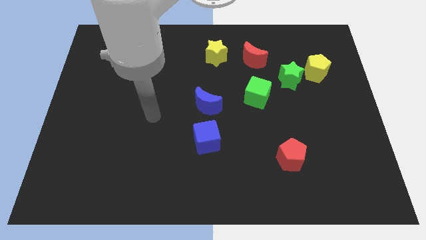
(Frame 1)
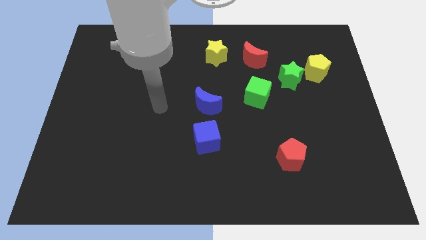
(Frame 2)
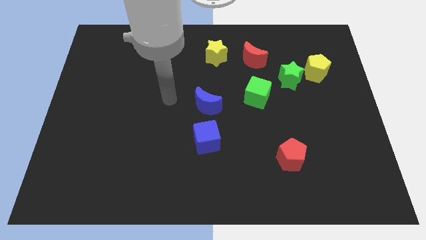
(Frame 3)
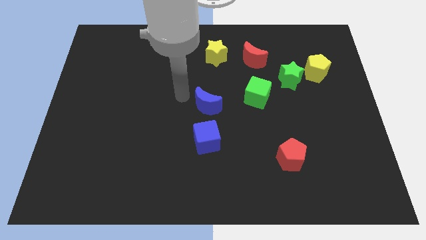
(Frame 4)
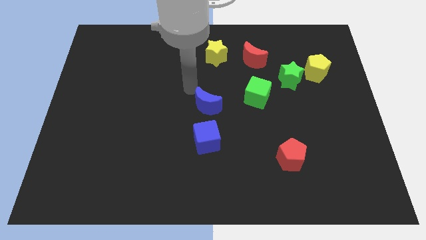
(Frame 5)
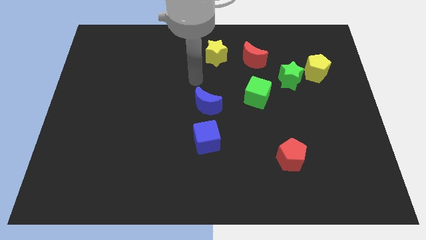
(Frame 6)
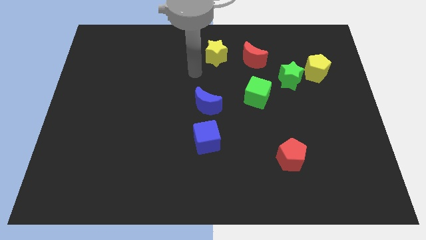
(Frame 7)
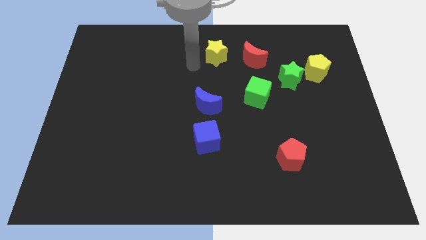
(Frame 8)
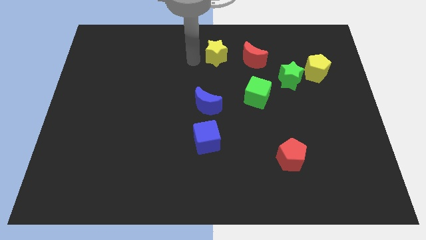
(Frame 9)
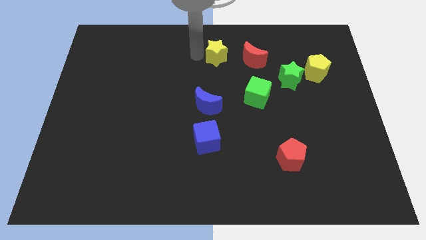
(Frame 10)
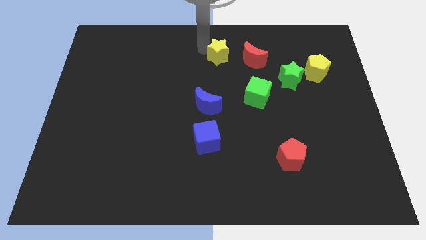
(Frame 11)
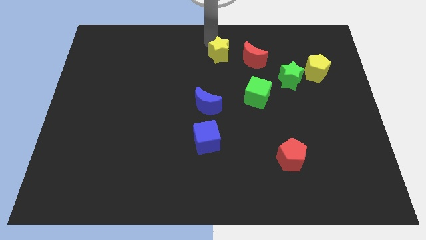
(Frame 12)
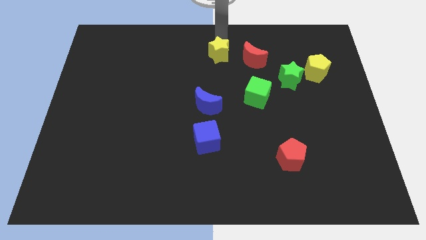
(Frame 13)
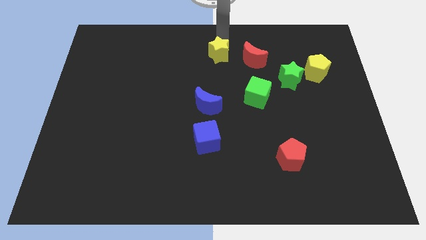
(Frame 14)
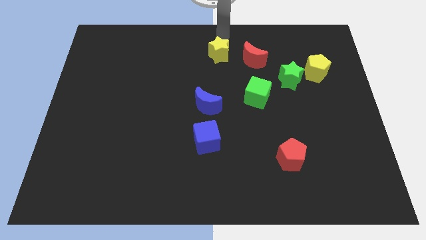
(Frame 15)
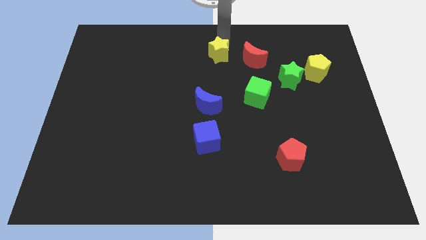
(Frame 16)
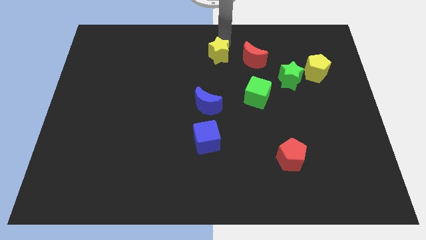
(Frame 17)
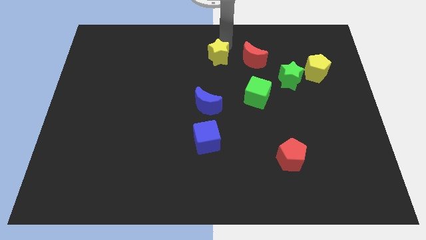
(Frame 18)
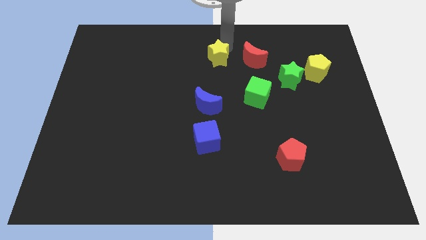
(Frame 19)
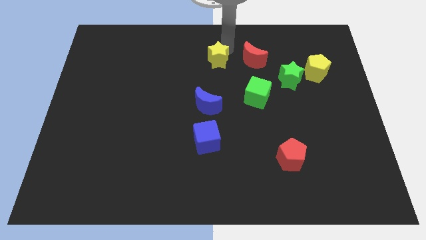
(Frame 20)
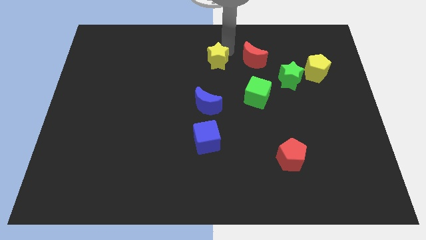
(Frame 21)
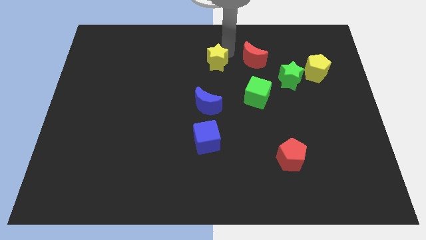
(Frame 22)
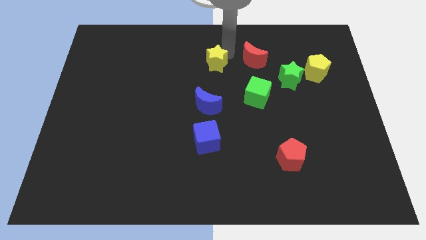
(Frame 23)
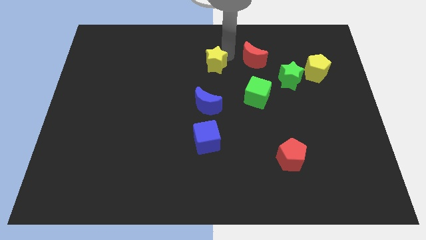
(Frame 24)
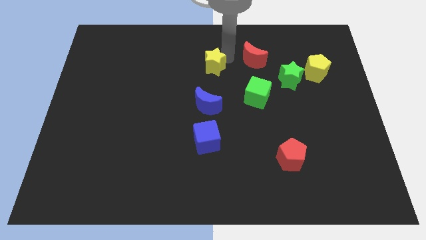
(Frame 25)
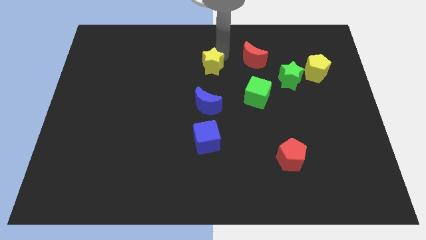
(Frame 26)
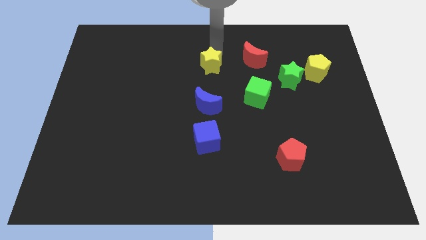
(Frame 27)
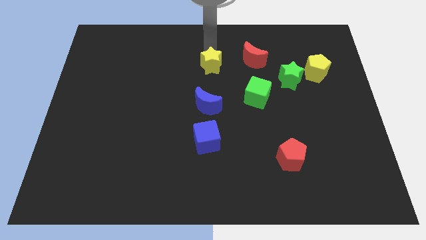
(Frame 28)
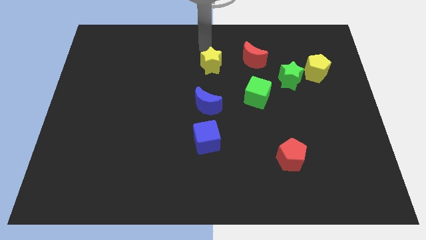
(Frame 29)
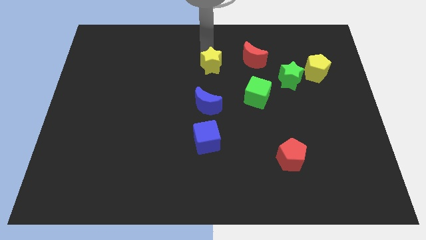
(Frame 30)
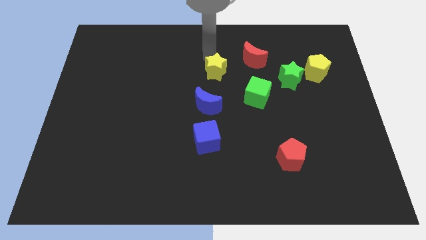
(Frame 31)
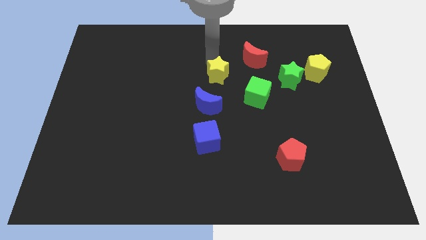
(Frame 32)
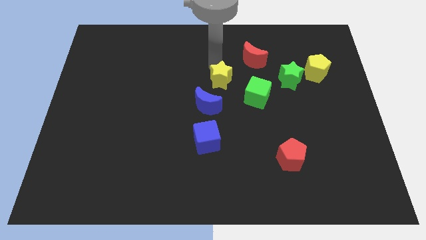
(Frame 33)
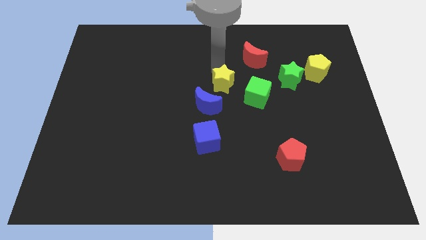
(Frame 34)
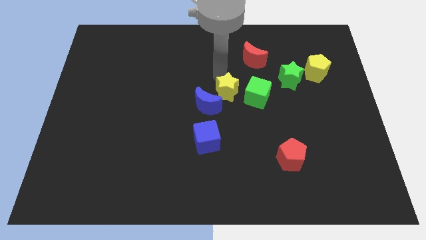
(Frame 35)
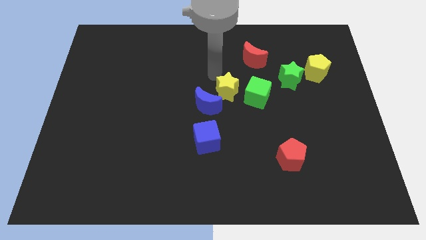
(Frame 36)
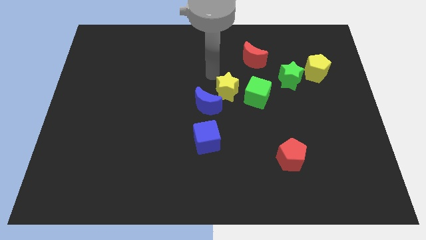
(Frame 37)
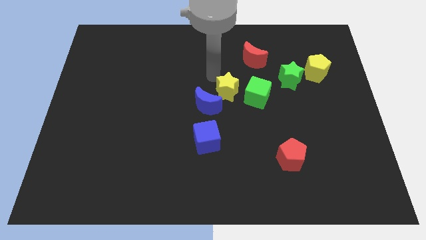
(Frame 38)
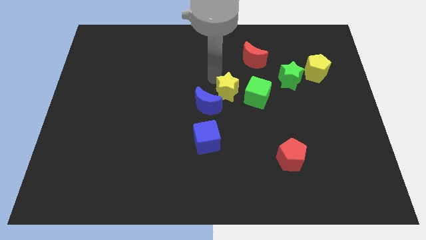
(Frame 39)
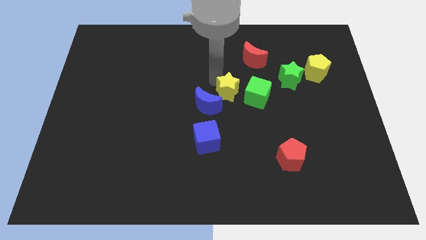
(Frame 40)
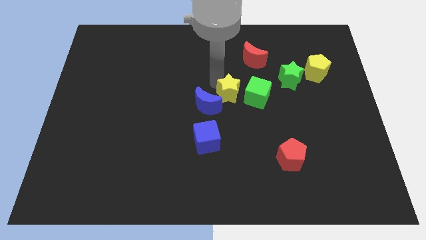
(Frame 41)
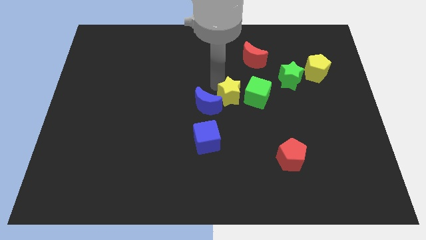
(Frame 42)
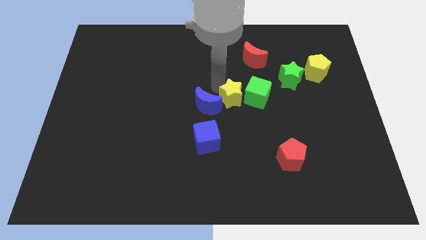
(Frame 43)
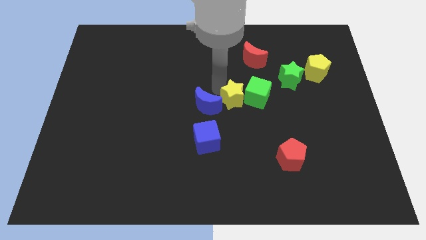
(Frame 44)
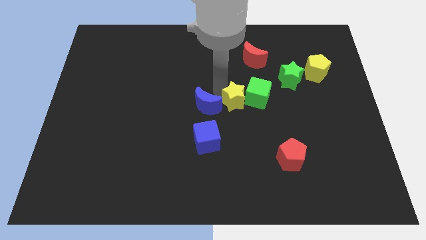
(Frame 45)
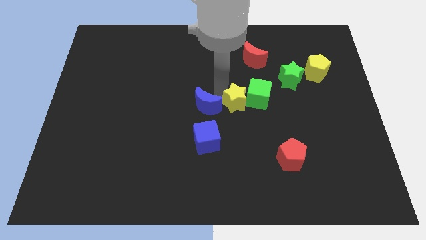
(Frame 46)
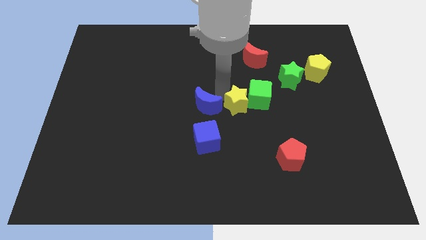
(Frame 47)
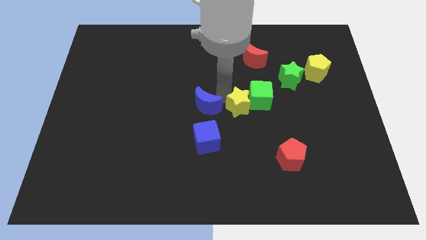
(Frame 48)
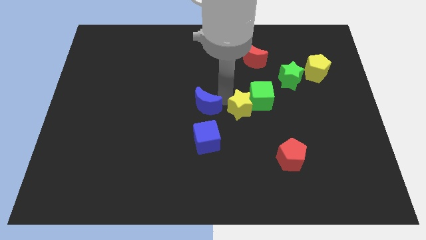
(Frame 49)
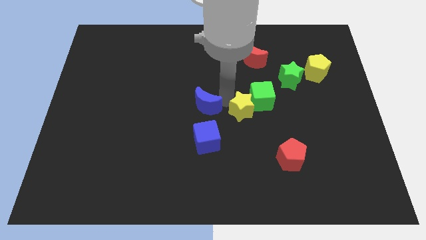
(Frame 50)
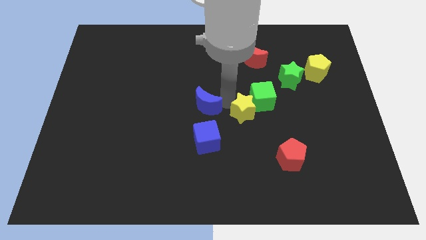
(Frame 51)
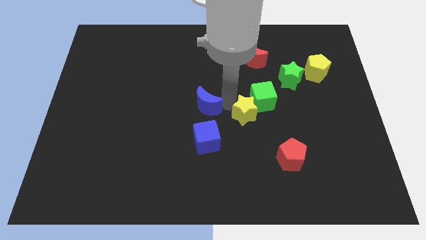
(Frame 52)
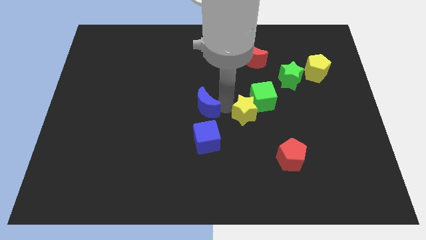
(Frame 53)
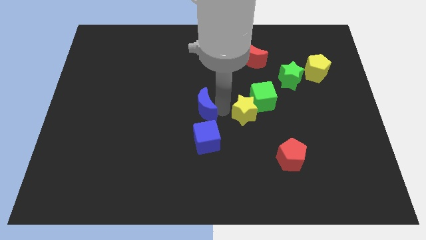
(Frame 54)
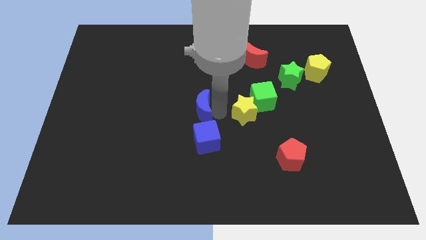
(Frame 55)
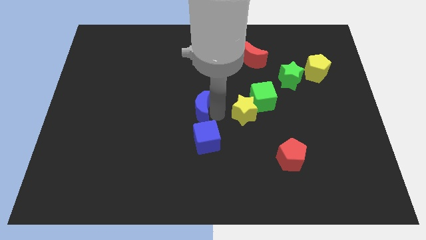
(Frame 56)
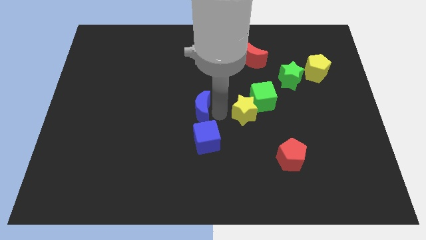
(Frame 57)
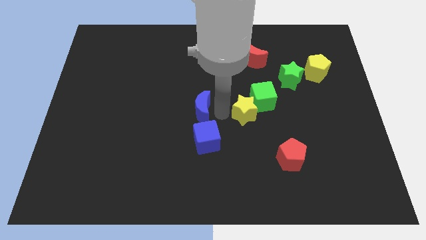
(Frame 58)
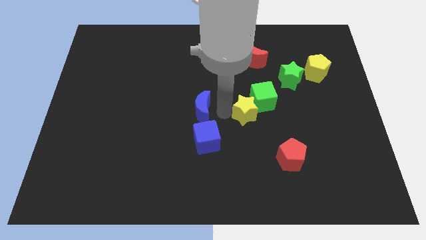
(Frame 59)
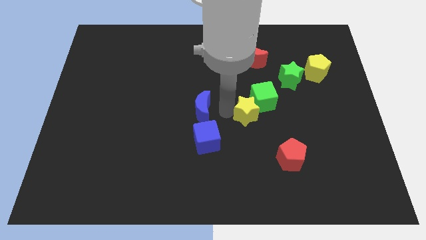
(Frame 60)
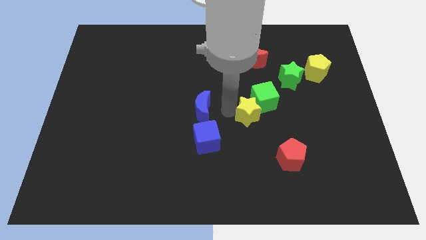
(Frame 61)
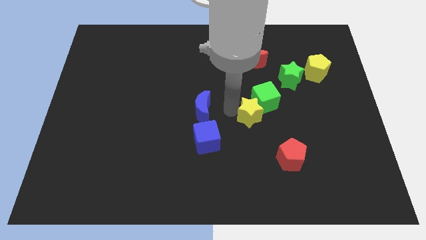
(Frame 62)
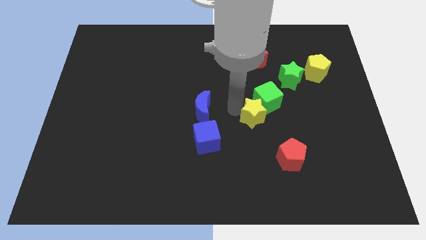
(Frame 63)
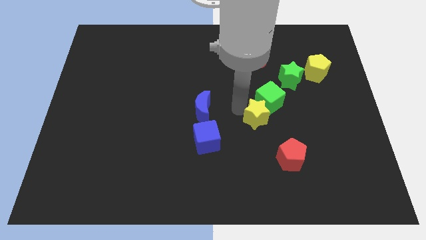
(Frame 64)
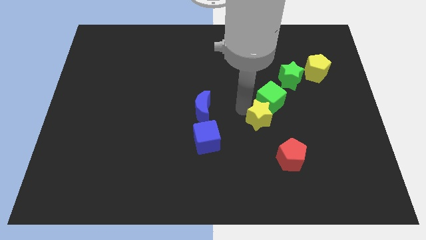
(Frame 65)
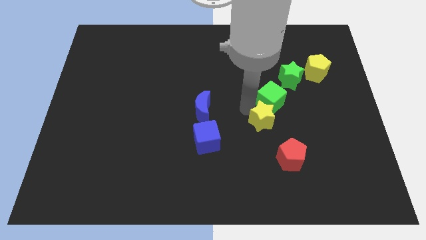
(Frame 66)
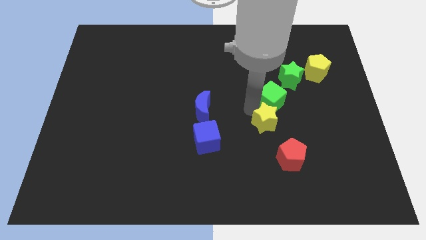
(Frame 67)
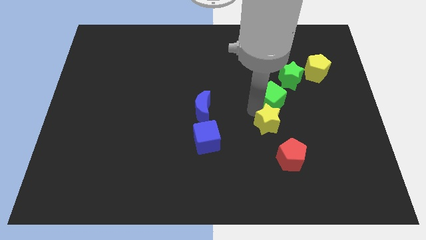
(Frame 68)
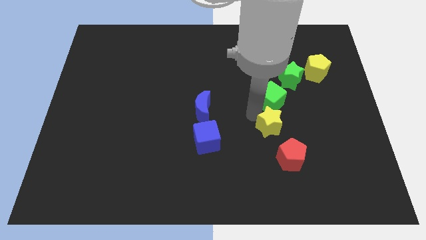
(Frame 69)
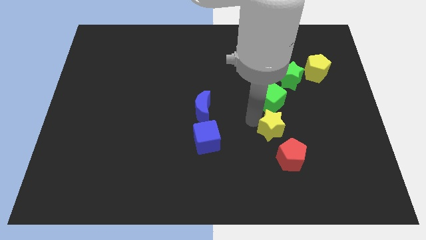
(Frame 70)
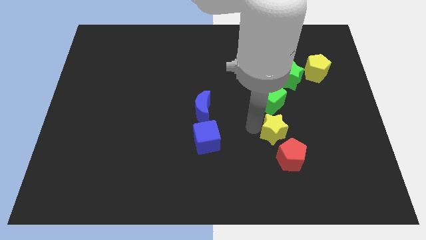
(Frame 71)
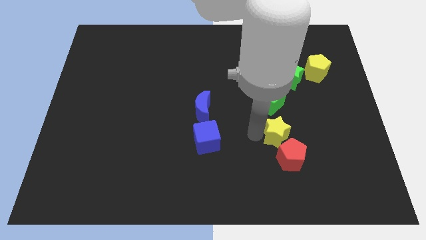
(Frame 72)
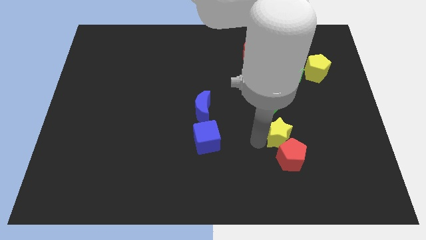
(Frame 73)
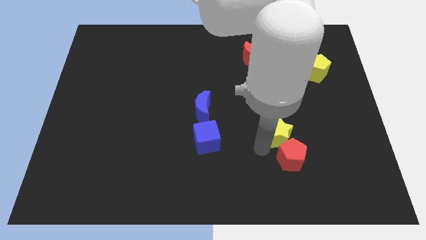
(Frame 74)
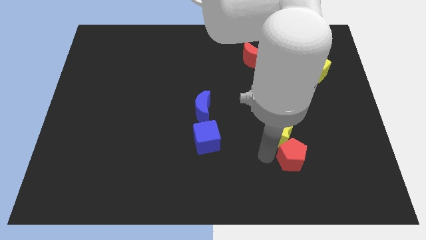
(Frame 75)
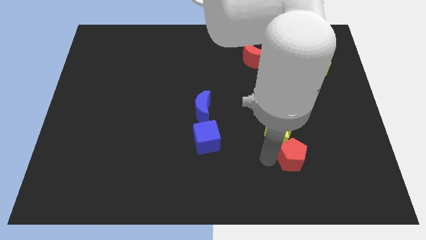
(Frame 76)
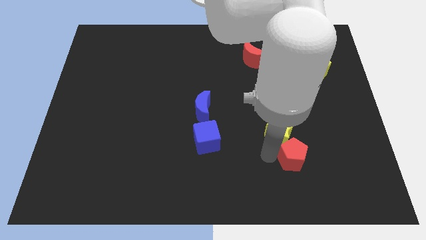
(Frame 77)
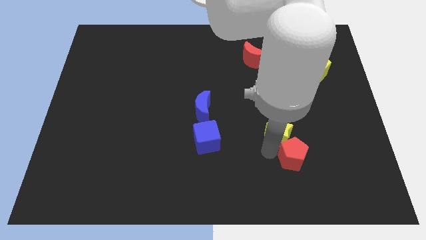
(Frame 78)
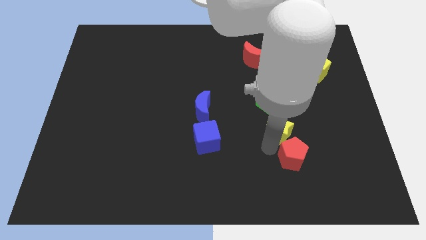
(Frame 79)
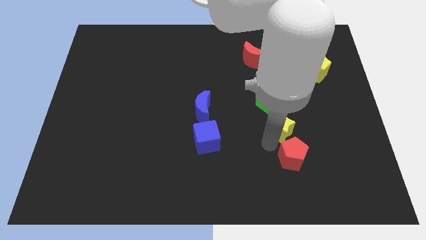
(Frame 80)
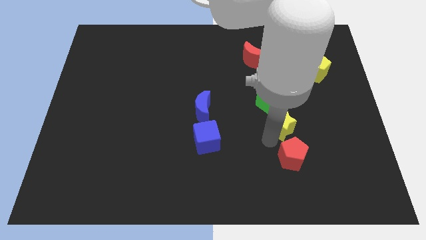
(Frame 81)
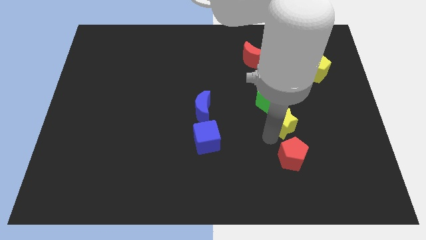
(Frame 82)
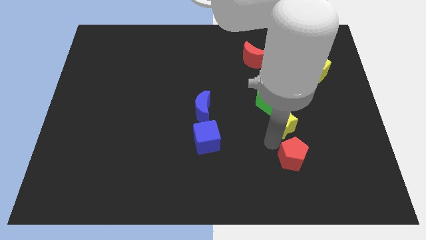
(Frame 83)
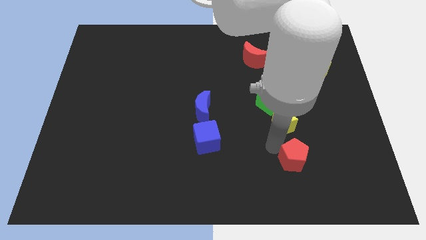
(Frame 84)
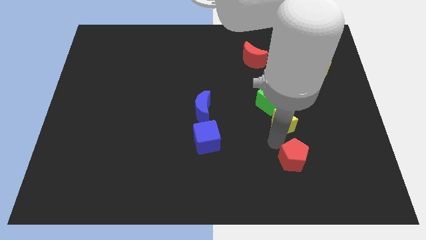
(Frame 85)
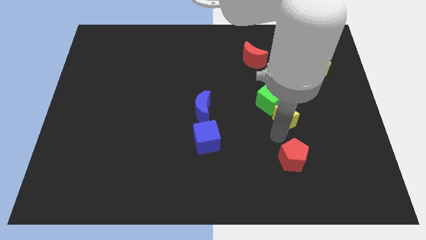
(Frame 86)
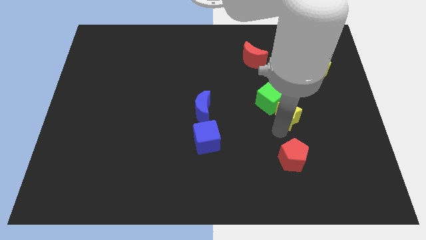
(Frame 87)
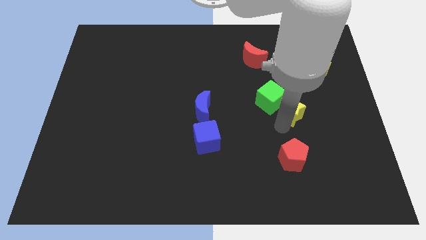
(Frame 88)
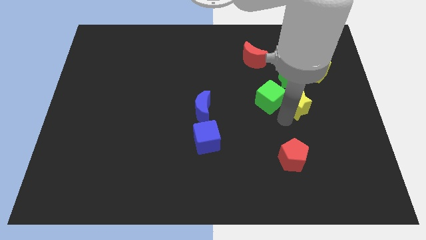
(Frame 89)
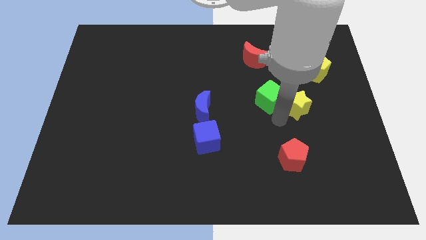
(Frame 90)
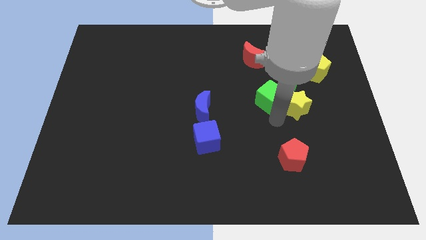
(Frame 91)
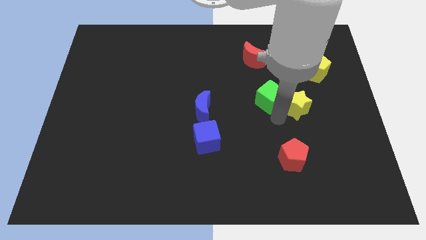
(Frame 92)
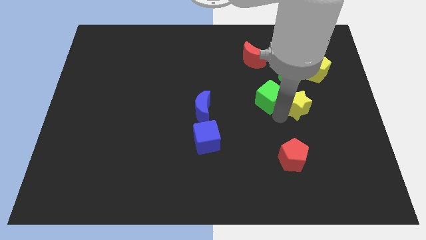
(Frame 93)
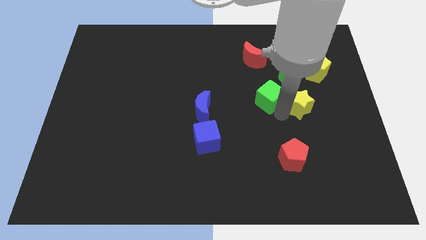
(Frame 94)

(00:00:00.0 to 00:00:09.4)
put the yellow star to the bottom right of the green star
